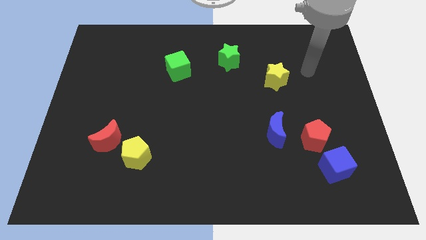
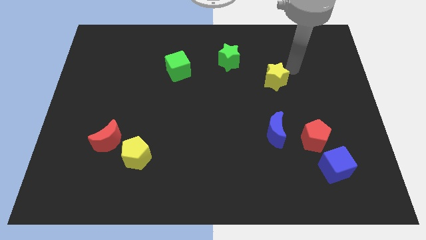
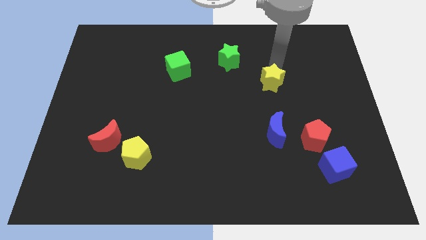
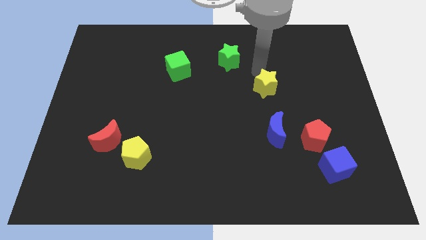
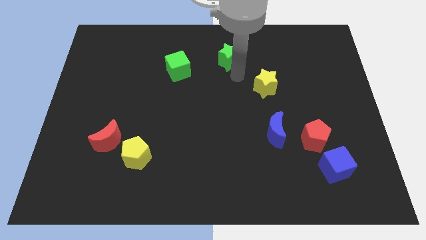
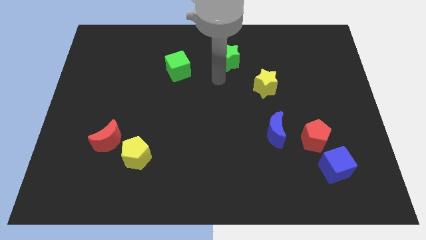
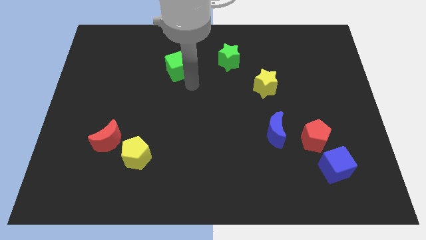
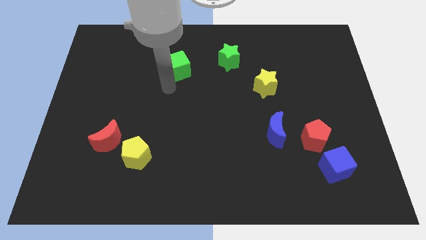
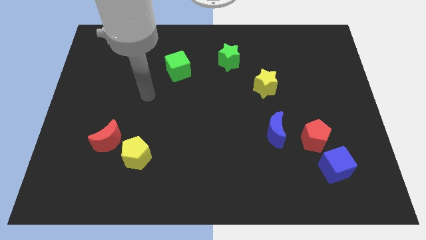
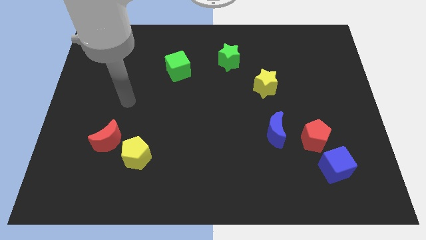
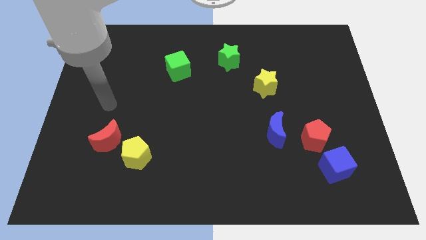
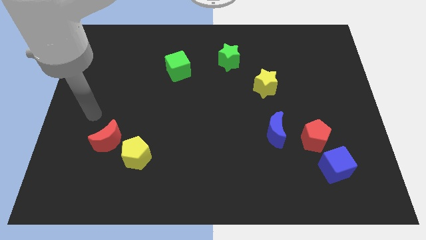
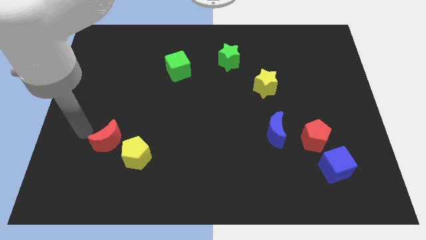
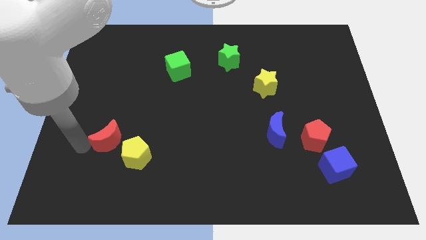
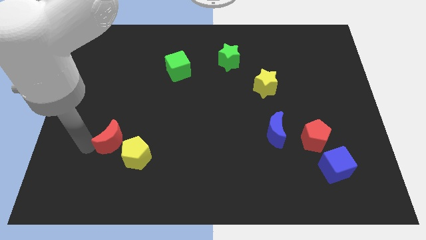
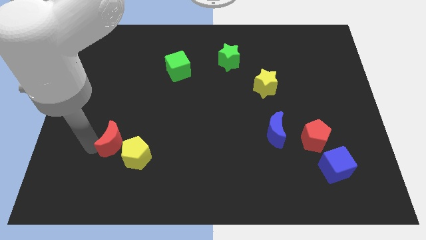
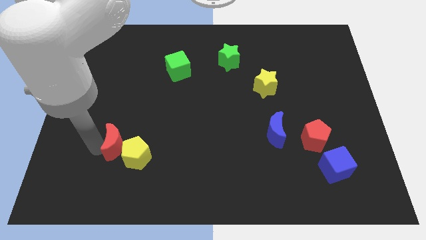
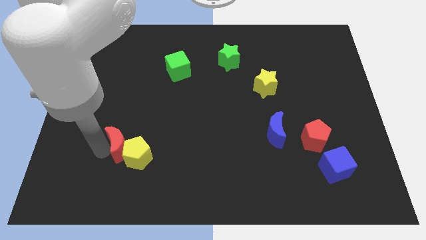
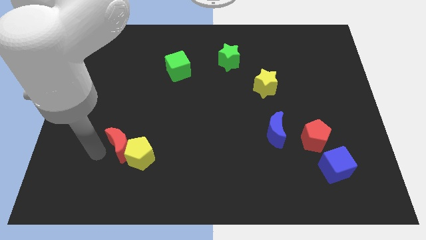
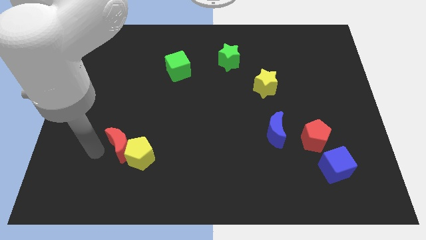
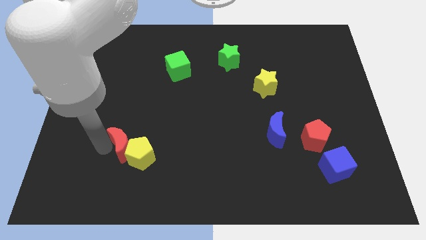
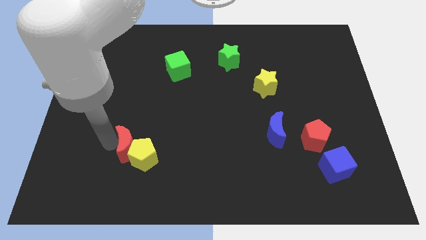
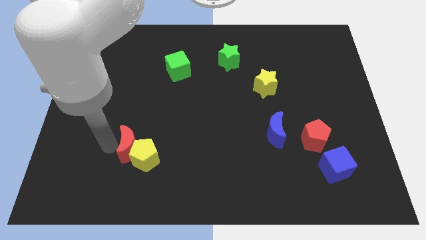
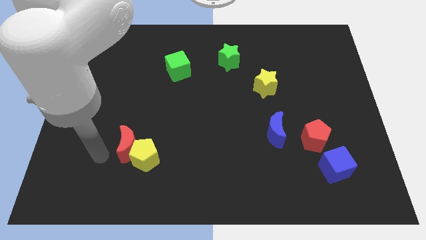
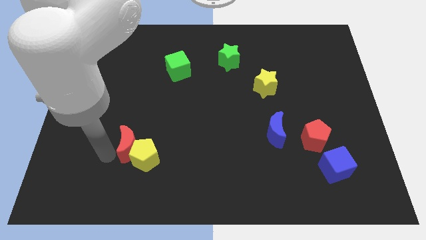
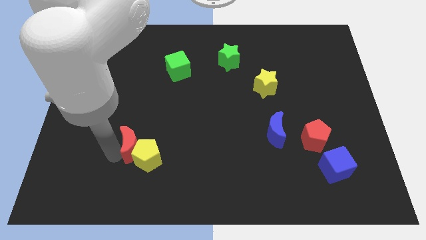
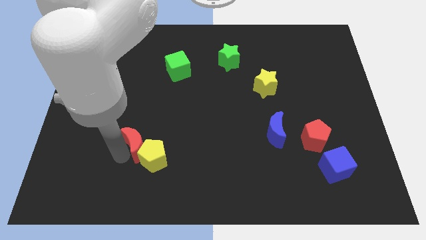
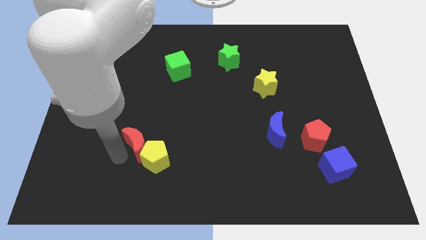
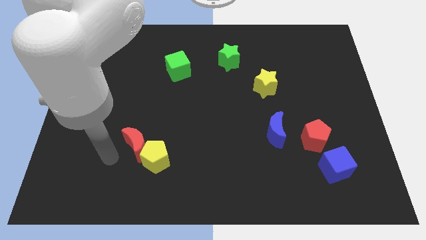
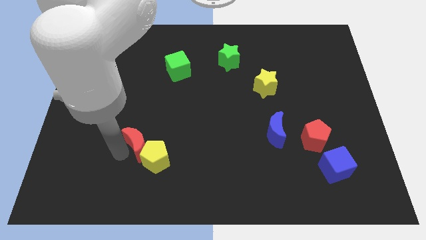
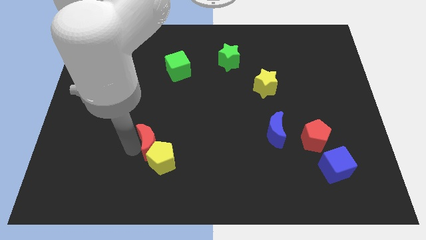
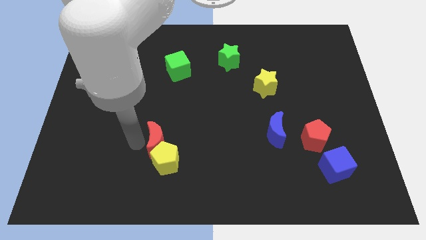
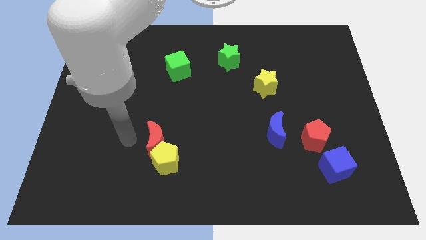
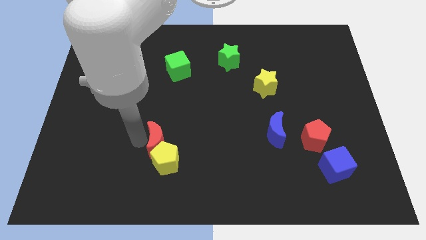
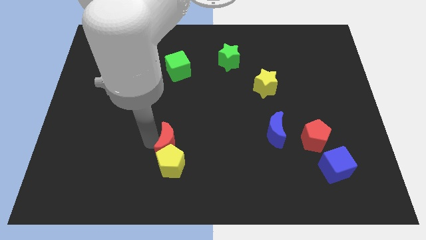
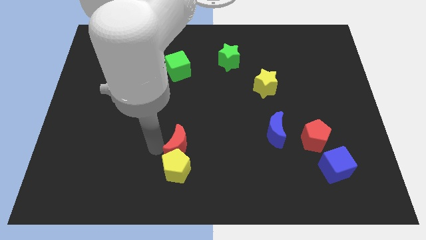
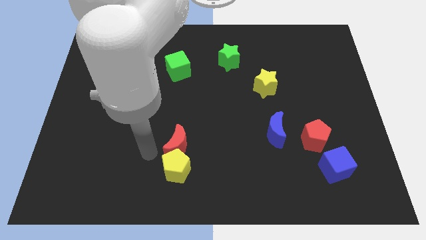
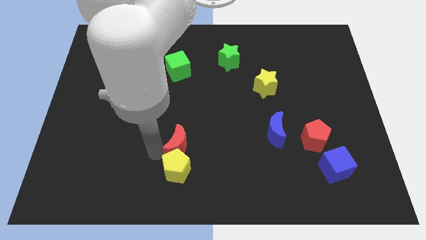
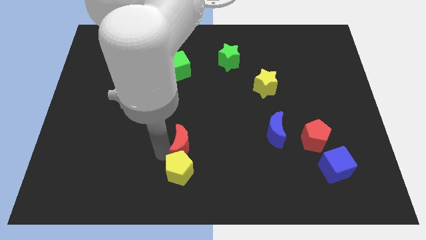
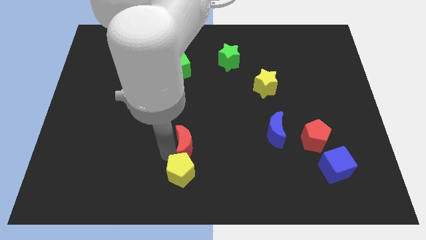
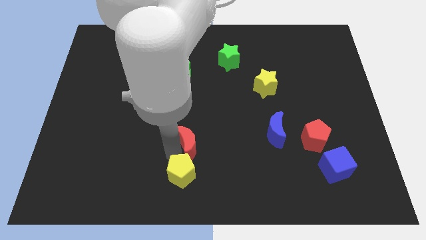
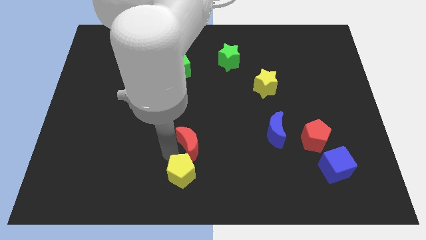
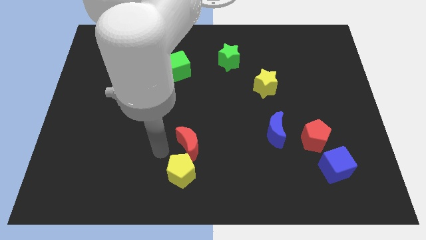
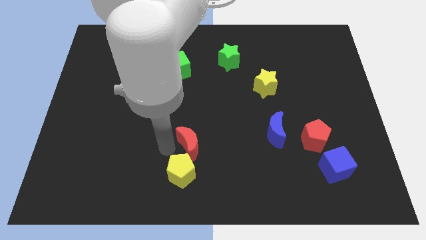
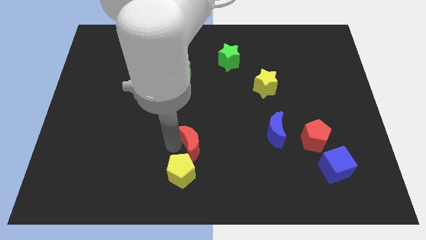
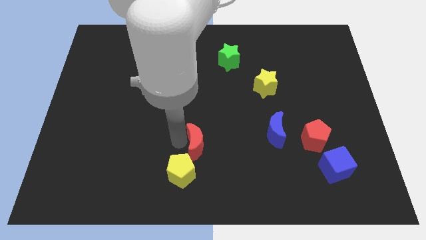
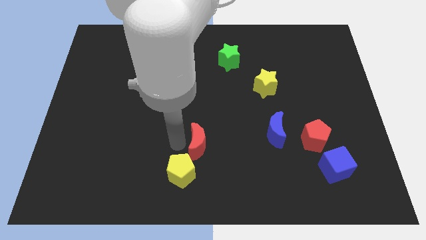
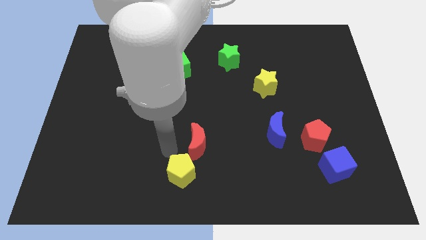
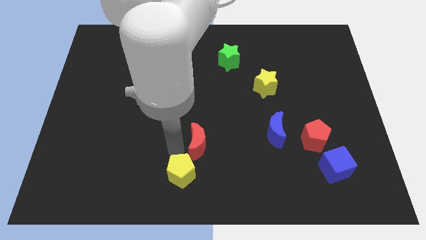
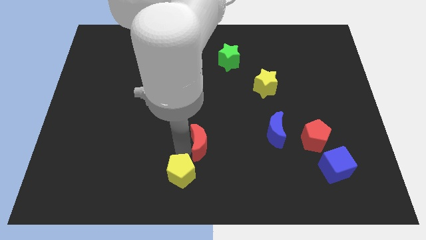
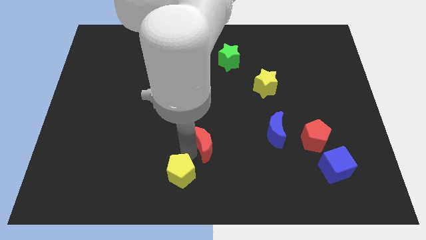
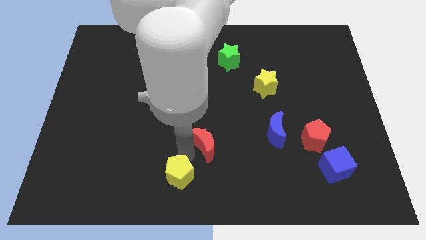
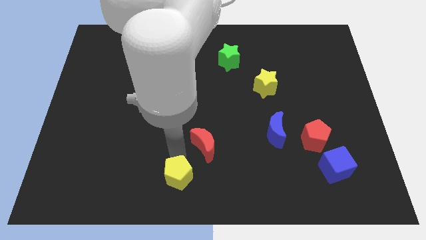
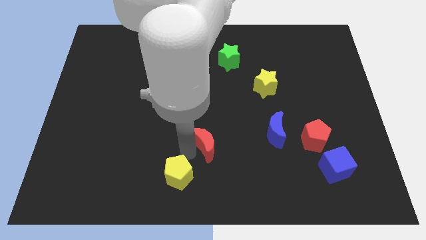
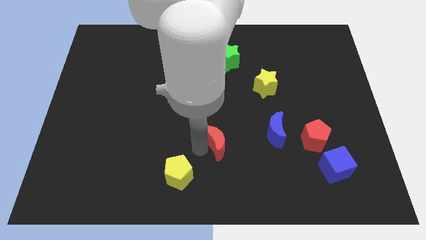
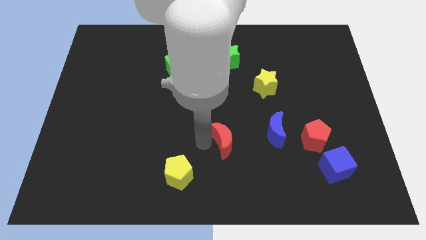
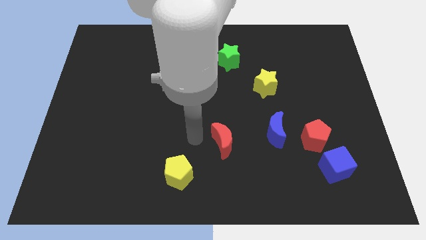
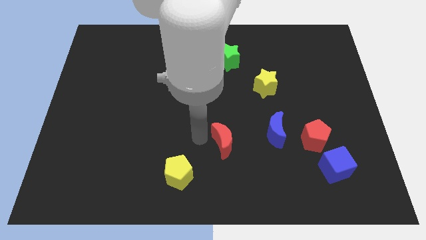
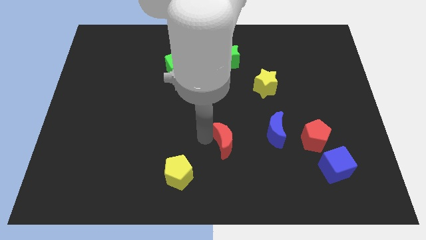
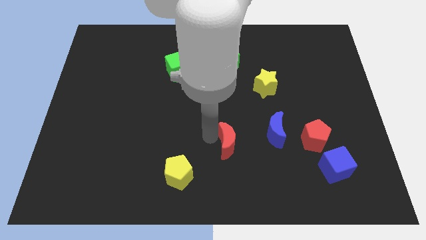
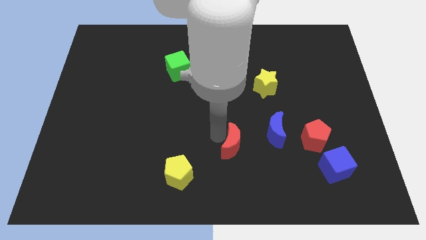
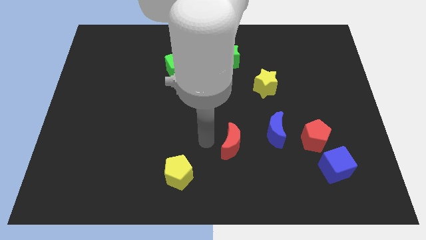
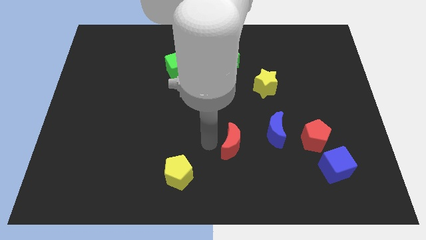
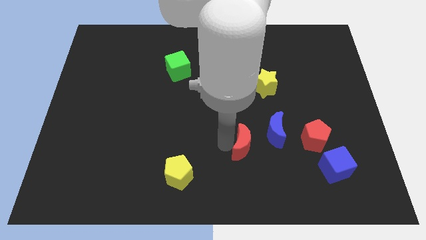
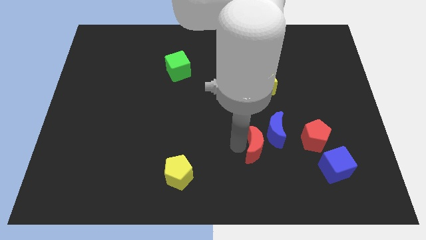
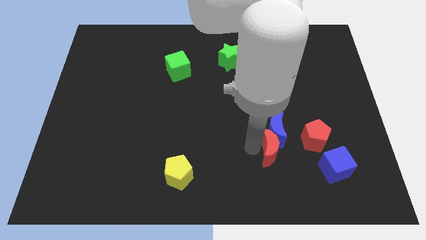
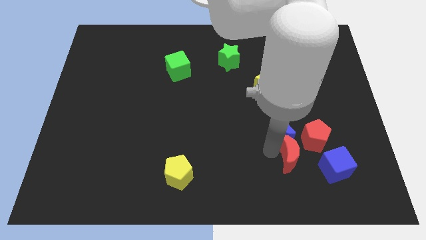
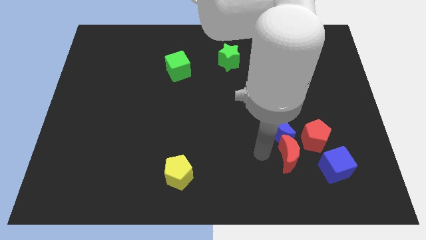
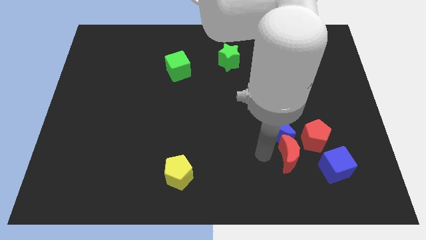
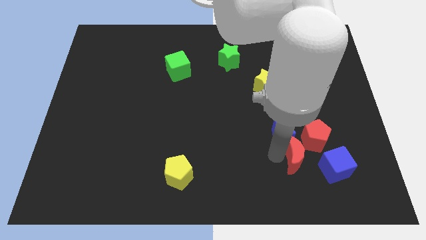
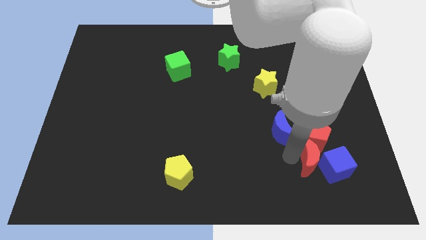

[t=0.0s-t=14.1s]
slide the red moon to the blue cube

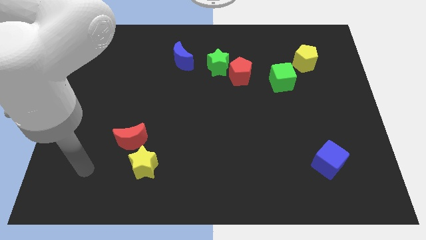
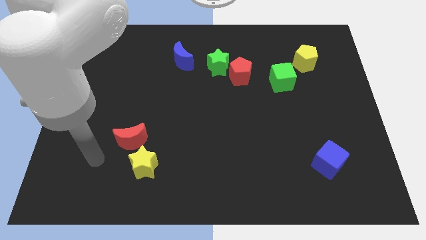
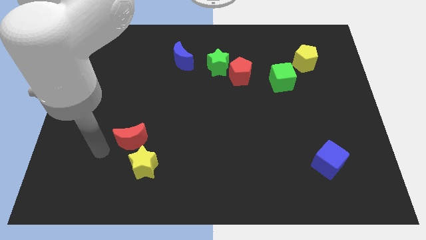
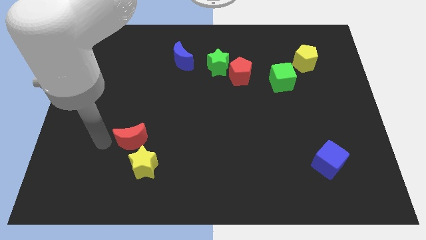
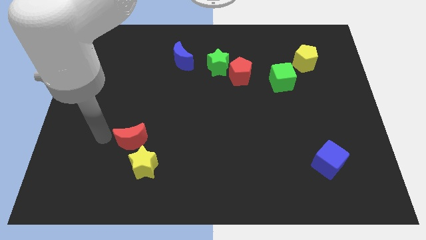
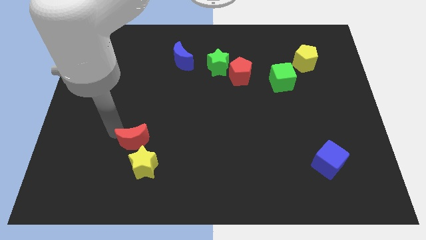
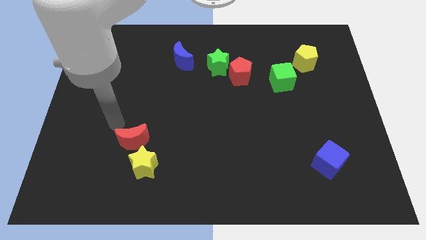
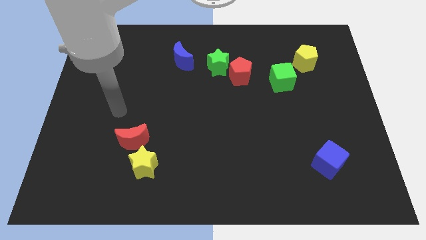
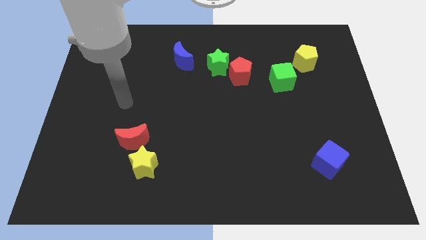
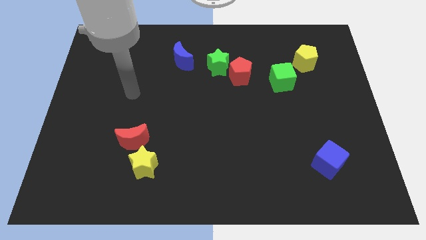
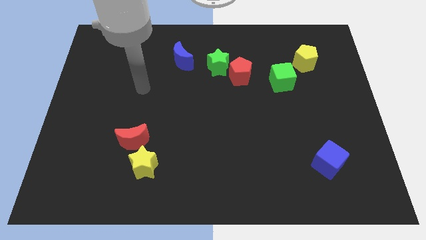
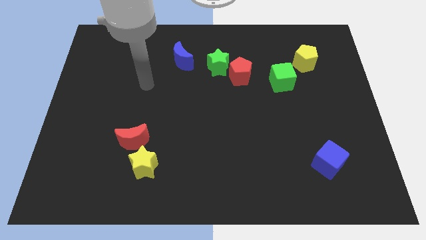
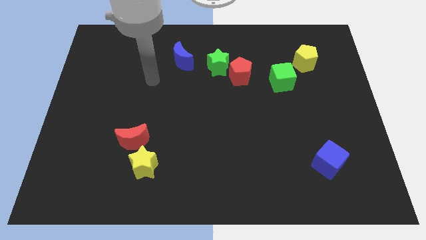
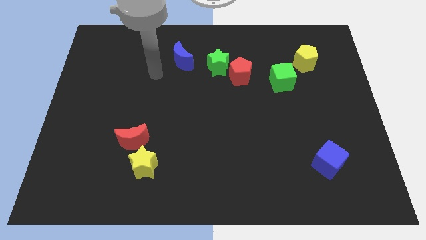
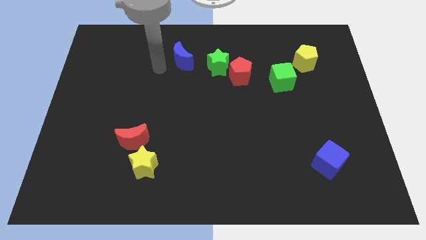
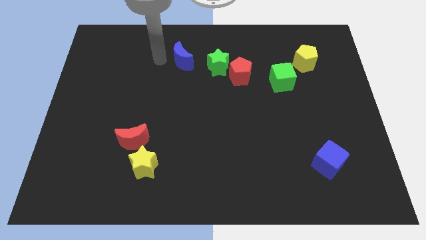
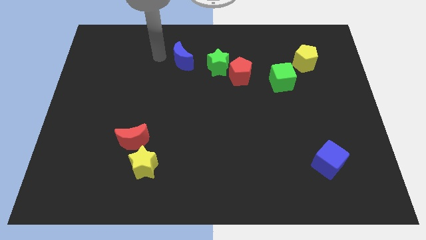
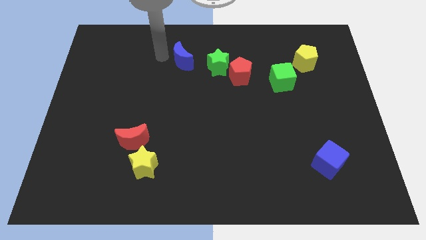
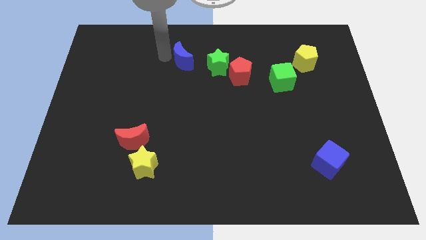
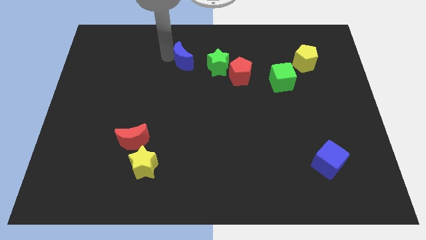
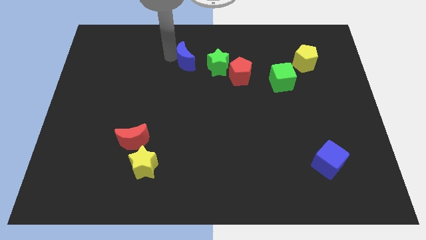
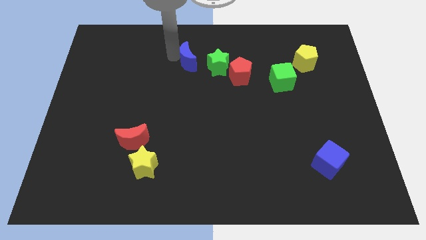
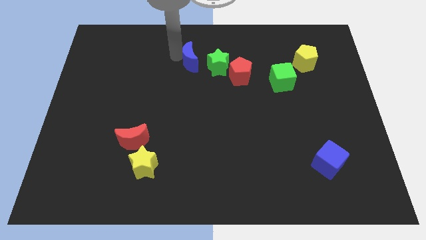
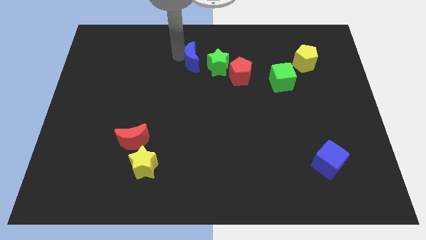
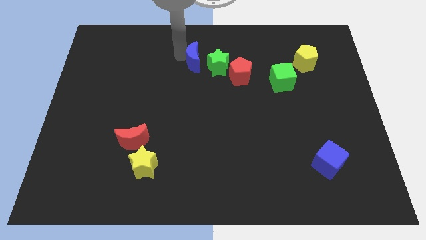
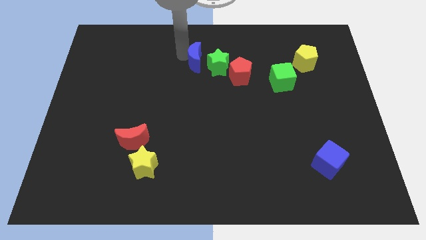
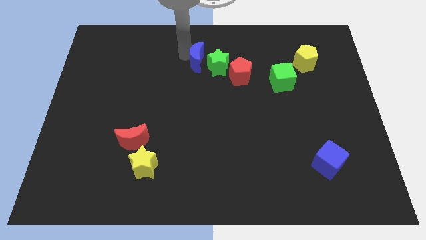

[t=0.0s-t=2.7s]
put the blue moon next to the green star
